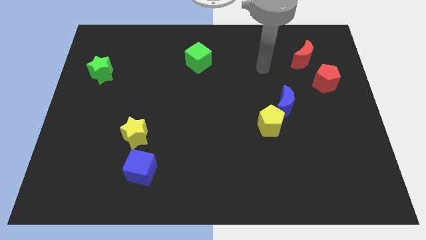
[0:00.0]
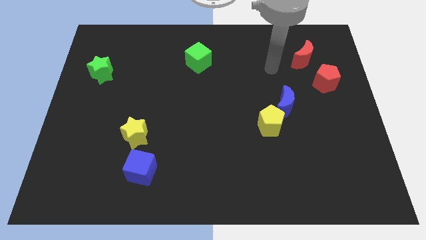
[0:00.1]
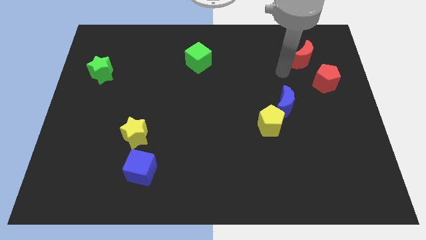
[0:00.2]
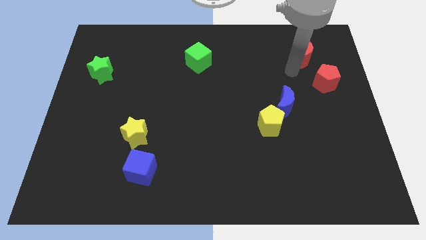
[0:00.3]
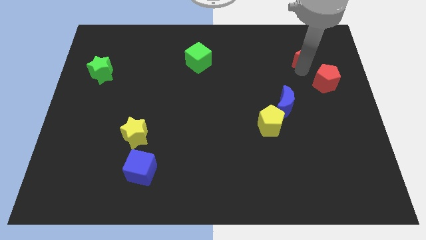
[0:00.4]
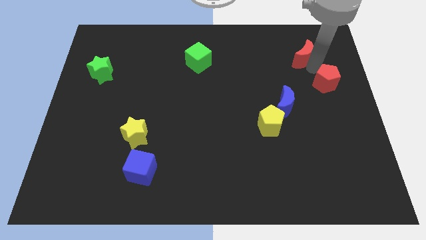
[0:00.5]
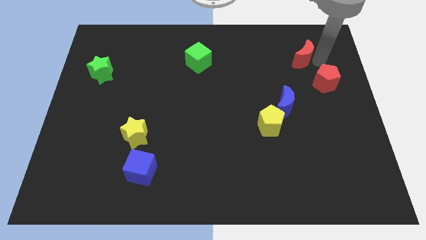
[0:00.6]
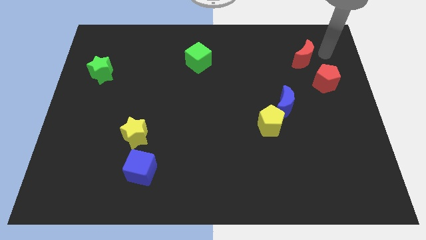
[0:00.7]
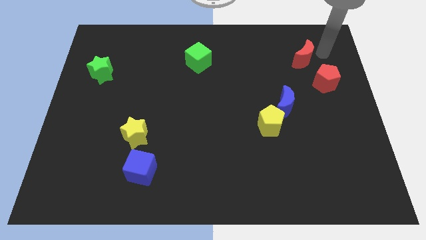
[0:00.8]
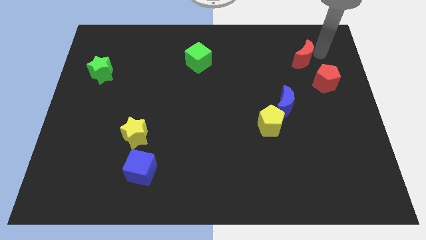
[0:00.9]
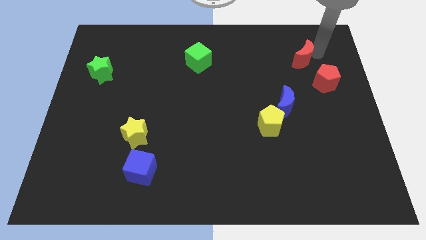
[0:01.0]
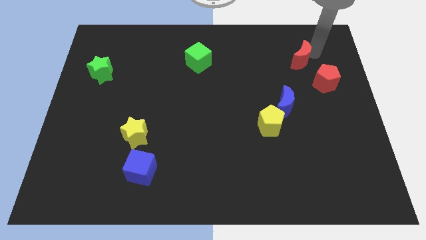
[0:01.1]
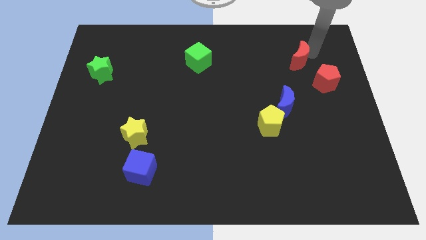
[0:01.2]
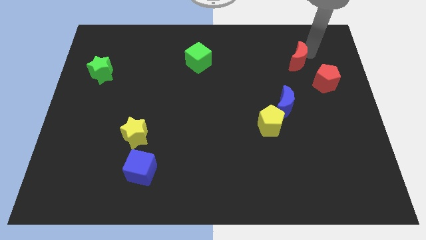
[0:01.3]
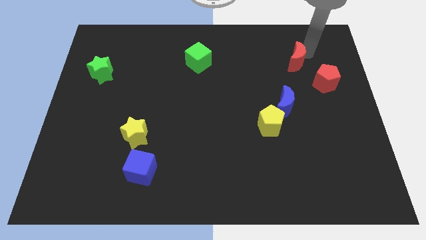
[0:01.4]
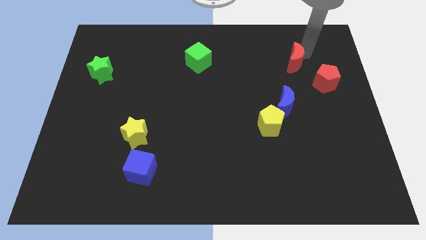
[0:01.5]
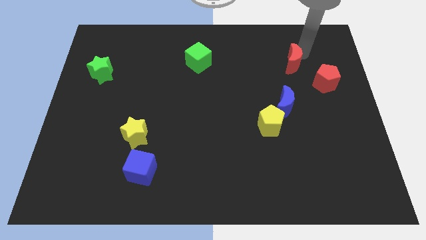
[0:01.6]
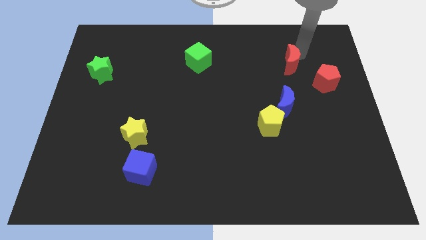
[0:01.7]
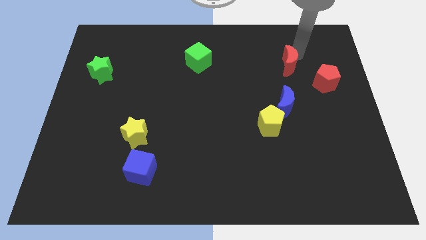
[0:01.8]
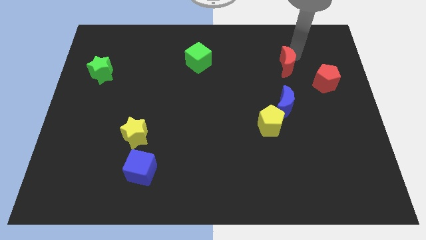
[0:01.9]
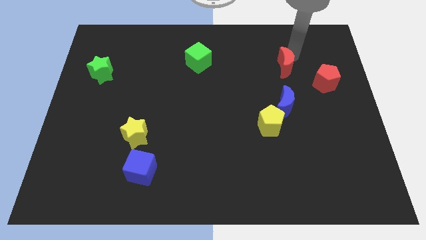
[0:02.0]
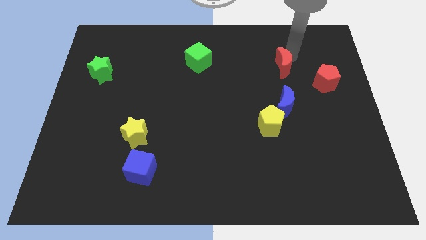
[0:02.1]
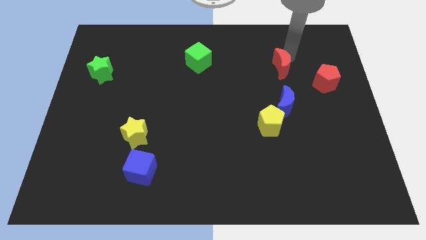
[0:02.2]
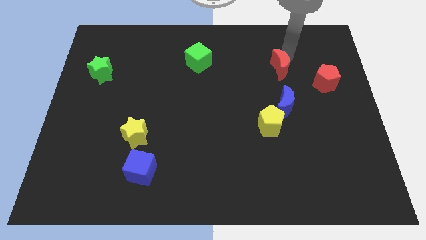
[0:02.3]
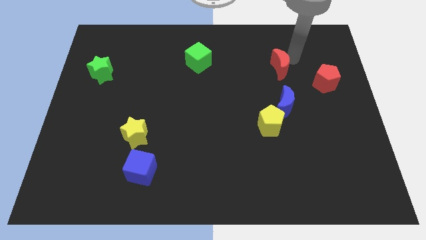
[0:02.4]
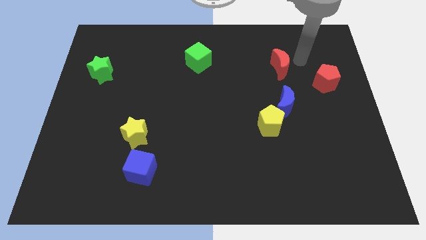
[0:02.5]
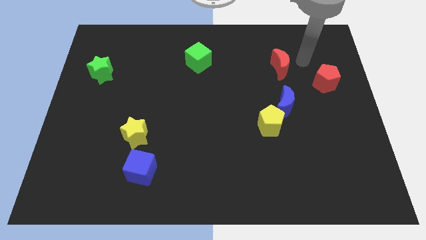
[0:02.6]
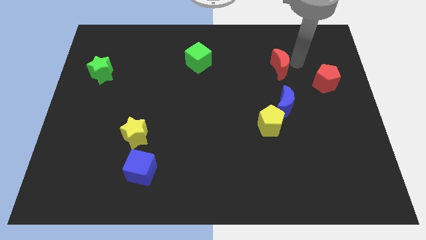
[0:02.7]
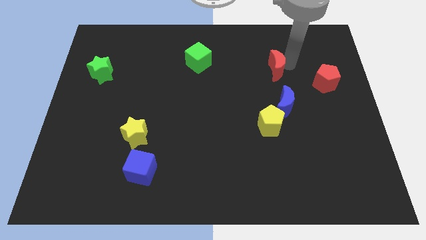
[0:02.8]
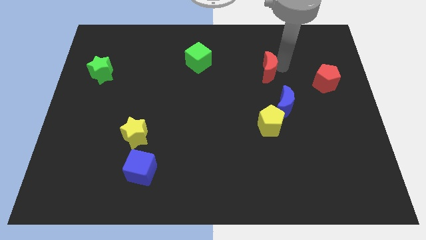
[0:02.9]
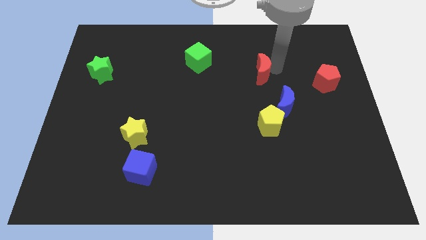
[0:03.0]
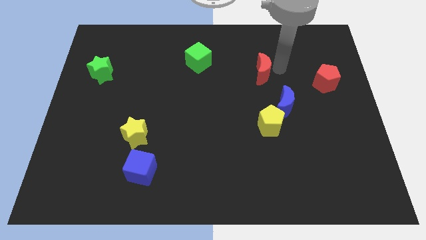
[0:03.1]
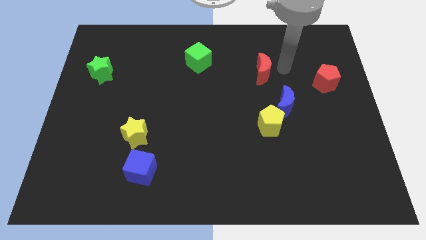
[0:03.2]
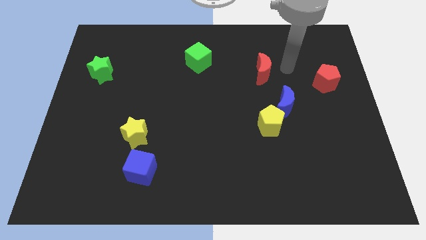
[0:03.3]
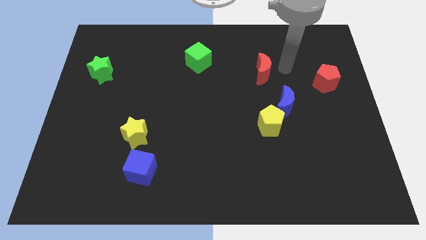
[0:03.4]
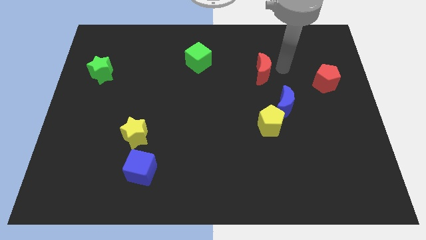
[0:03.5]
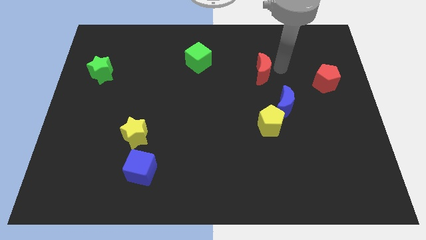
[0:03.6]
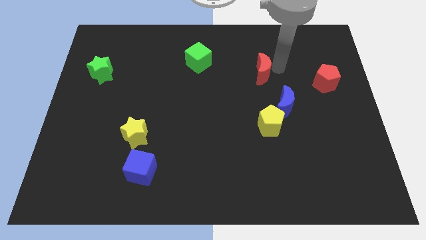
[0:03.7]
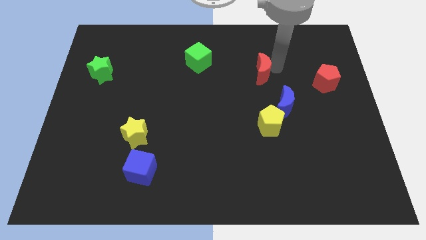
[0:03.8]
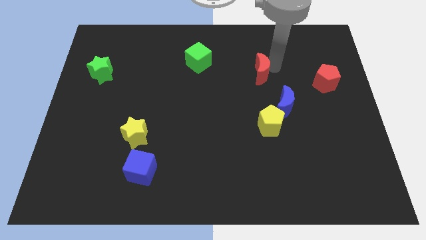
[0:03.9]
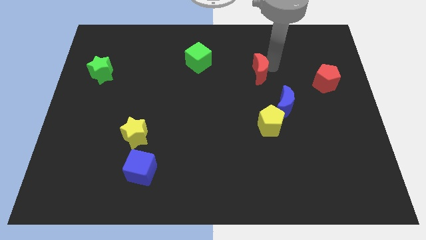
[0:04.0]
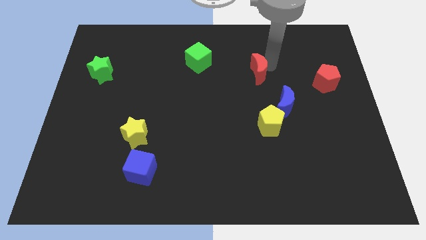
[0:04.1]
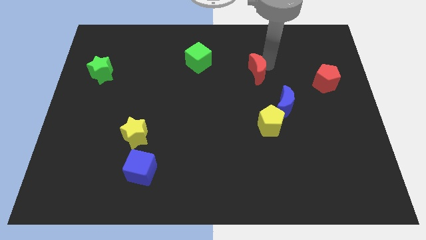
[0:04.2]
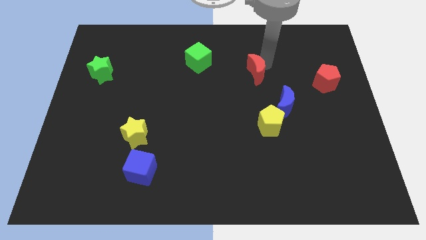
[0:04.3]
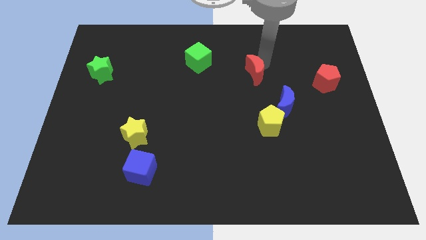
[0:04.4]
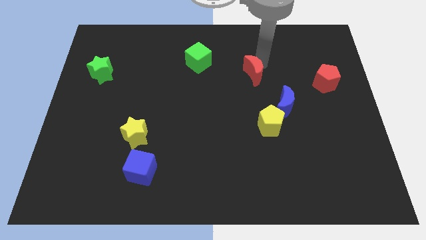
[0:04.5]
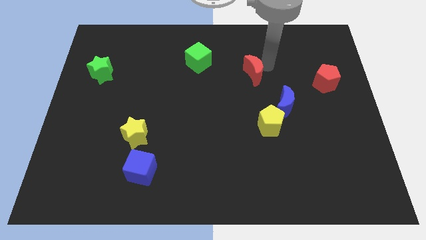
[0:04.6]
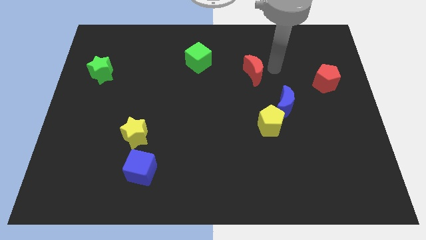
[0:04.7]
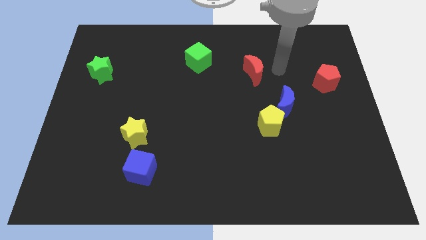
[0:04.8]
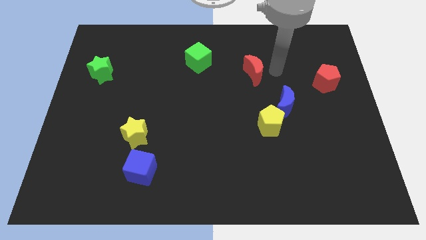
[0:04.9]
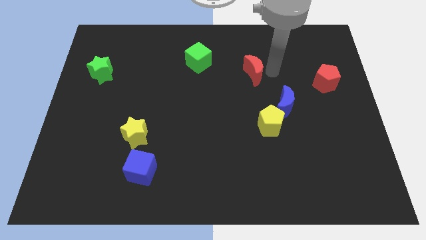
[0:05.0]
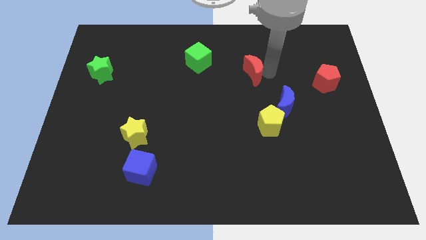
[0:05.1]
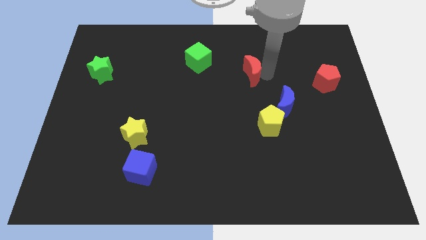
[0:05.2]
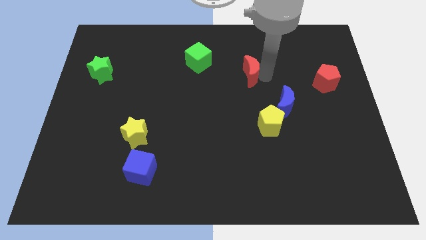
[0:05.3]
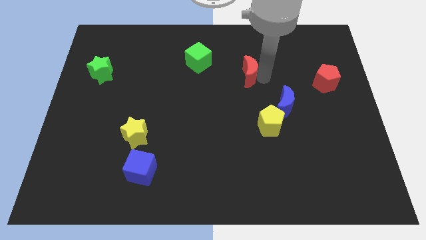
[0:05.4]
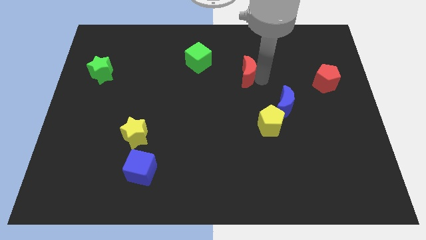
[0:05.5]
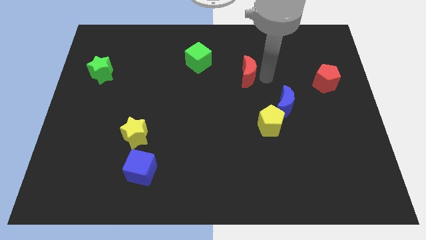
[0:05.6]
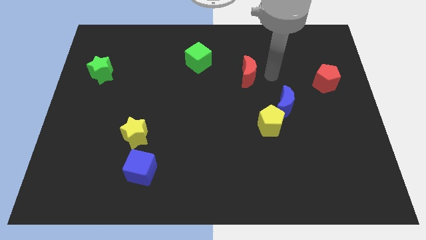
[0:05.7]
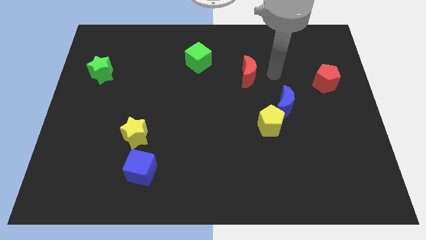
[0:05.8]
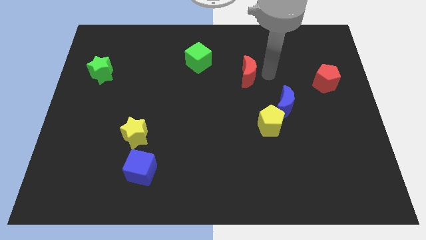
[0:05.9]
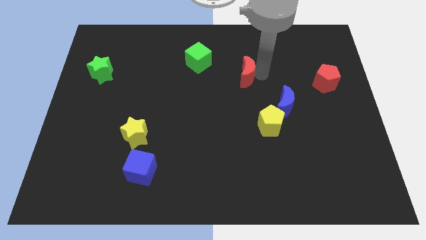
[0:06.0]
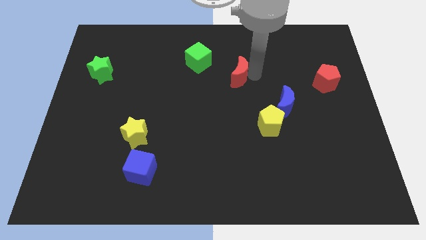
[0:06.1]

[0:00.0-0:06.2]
push the red moon to the bottom right side of the green cube

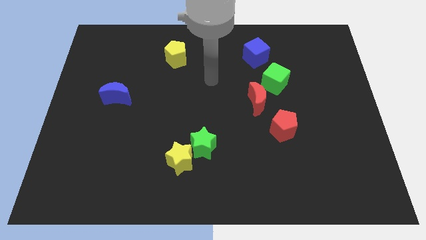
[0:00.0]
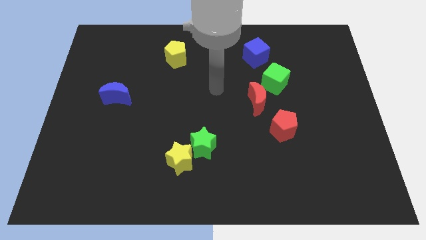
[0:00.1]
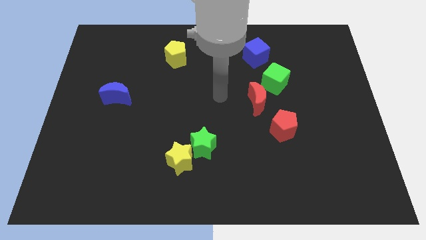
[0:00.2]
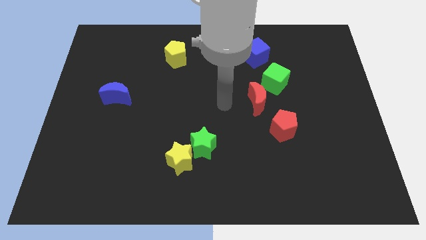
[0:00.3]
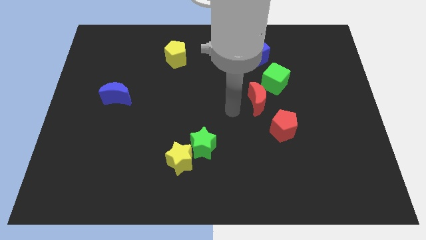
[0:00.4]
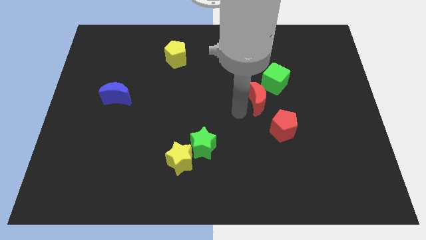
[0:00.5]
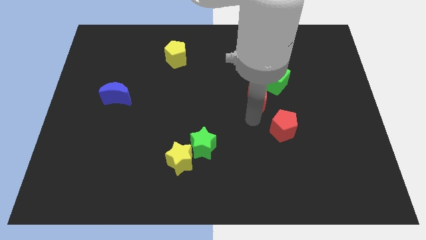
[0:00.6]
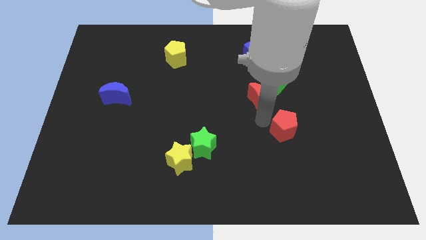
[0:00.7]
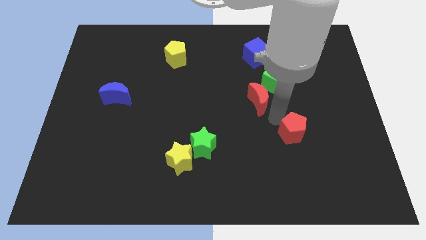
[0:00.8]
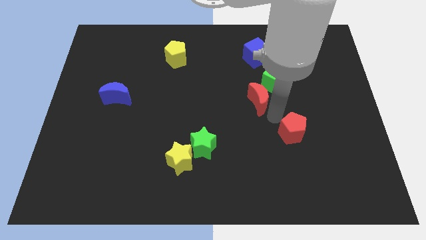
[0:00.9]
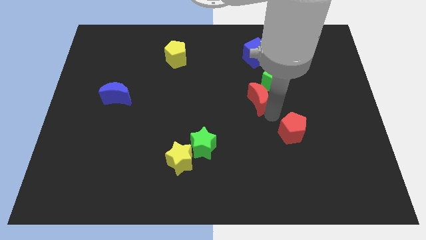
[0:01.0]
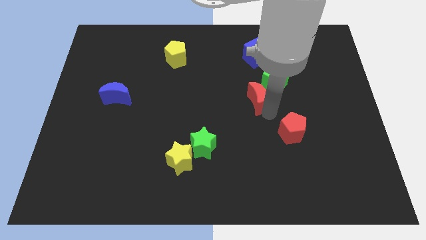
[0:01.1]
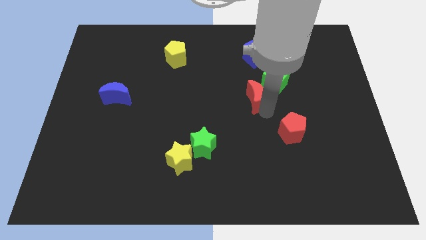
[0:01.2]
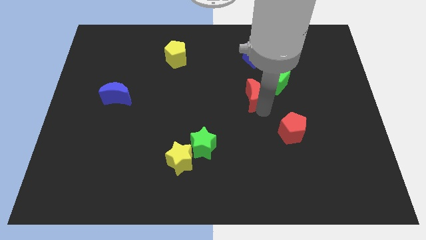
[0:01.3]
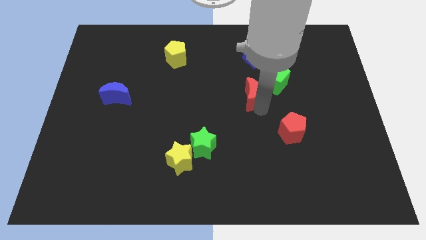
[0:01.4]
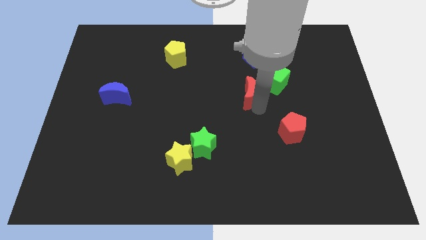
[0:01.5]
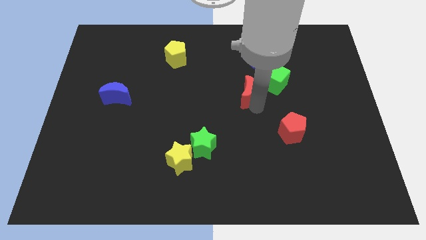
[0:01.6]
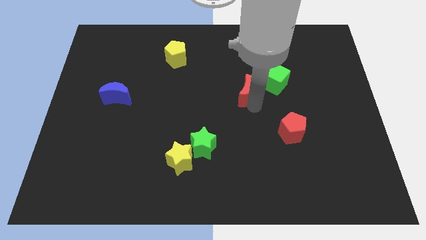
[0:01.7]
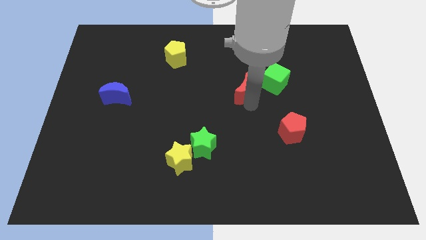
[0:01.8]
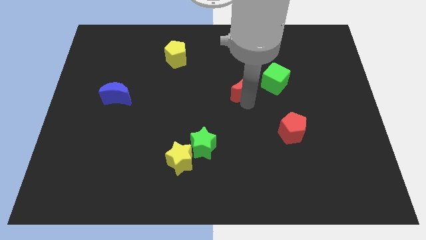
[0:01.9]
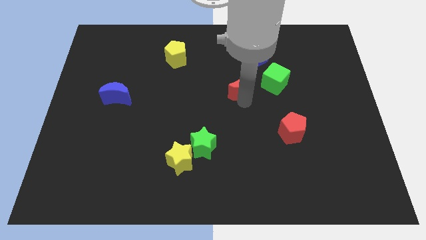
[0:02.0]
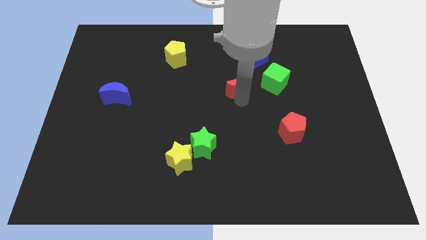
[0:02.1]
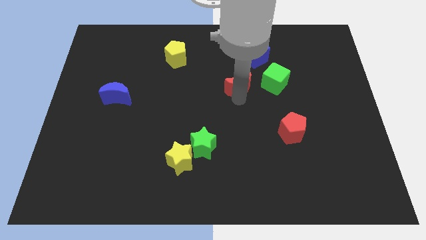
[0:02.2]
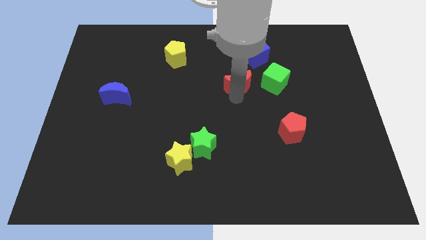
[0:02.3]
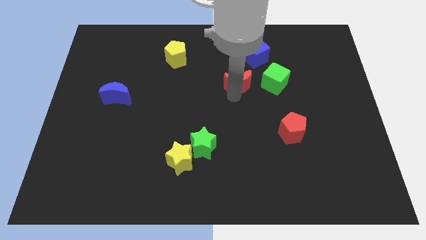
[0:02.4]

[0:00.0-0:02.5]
put the red moon to the bottom left of the blue cube
